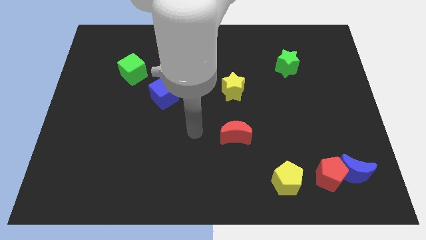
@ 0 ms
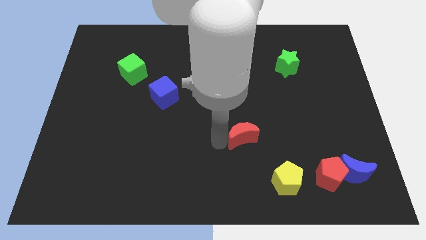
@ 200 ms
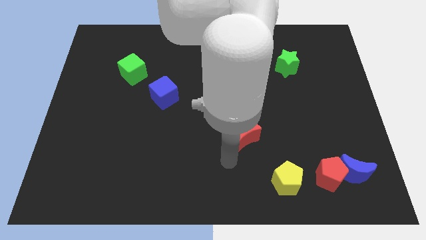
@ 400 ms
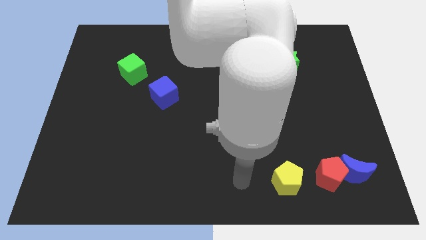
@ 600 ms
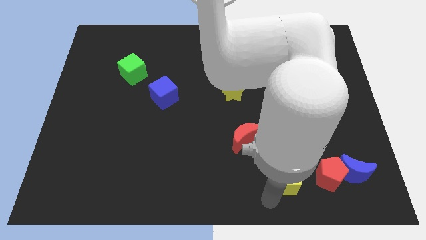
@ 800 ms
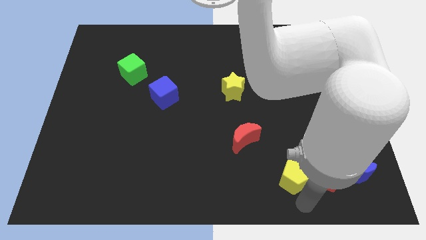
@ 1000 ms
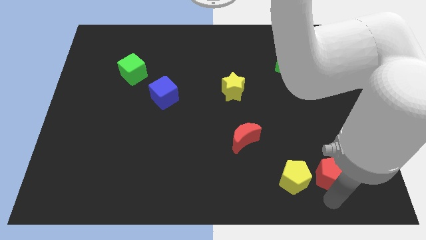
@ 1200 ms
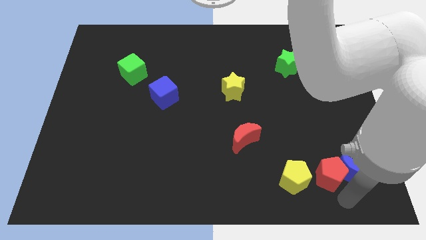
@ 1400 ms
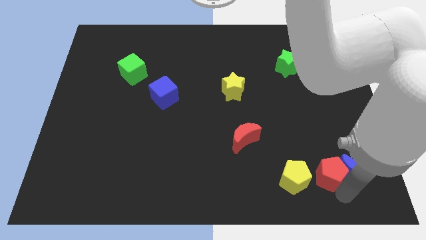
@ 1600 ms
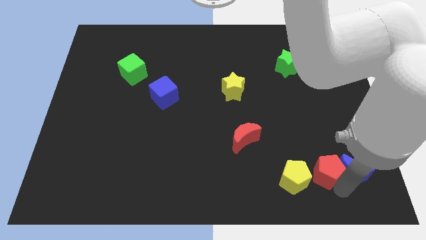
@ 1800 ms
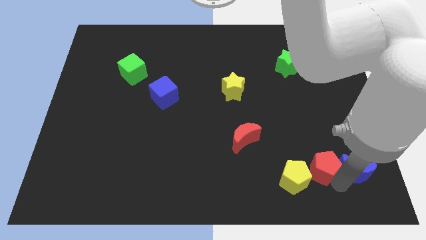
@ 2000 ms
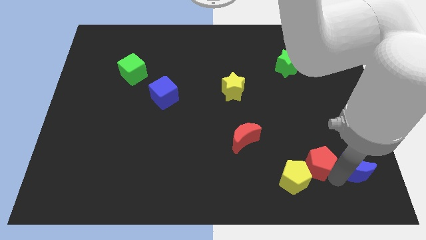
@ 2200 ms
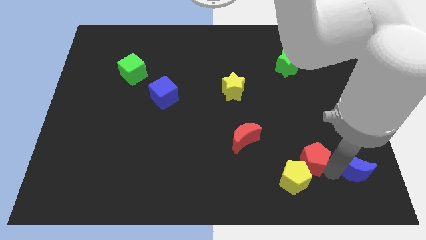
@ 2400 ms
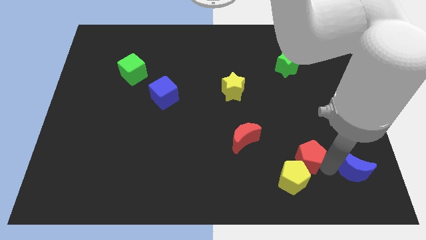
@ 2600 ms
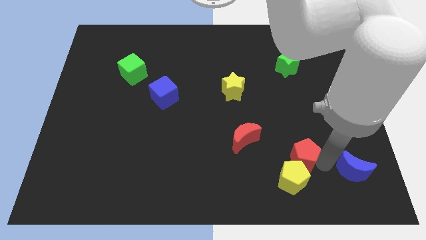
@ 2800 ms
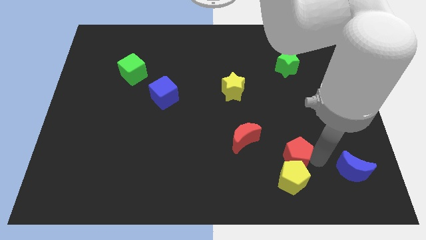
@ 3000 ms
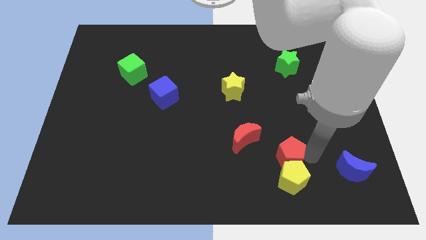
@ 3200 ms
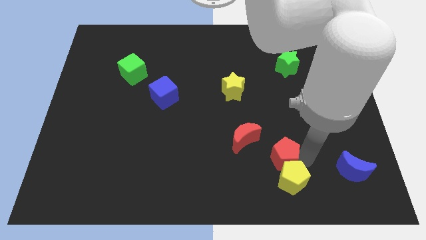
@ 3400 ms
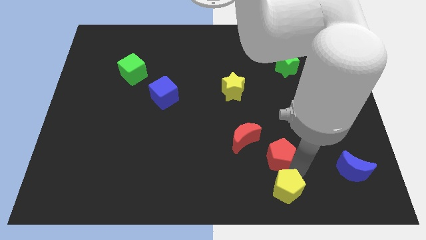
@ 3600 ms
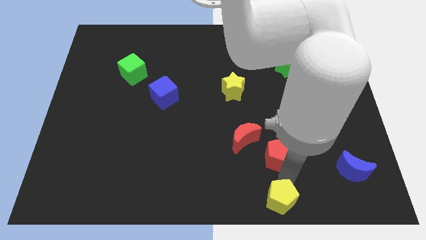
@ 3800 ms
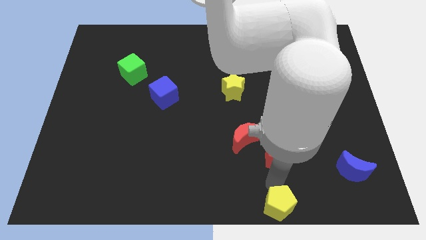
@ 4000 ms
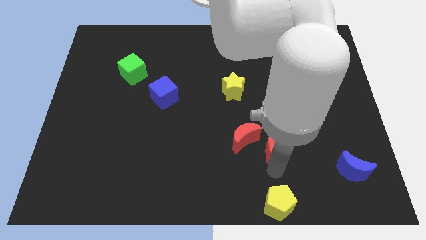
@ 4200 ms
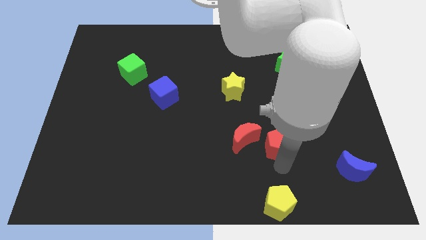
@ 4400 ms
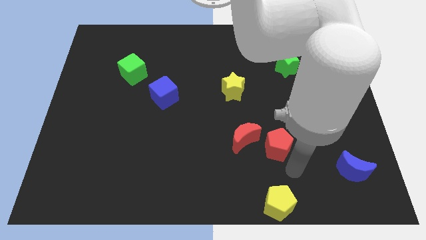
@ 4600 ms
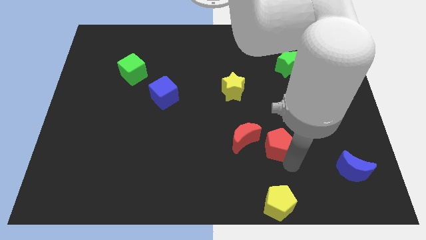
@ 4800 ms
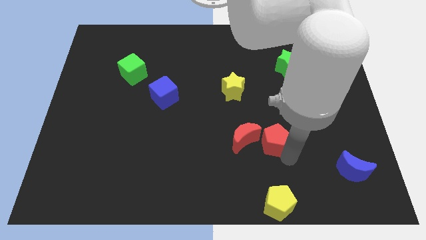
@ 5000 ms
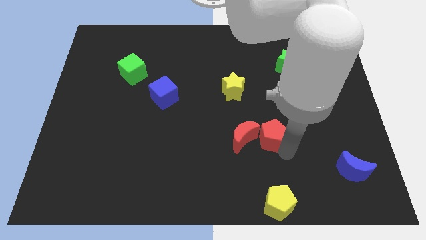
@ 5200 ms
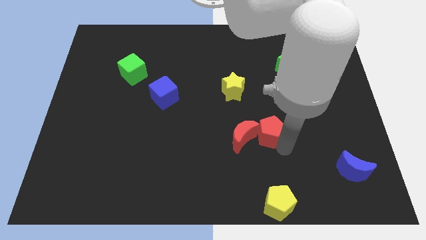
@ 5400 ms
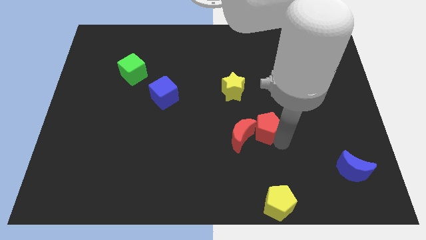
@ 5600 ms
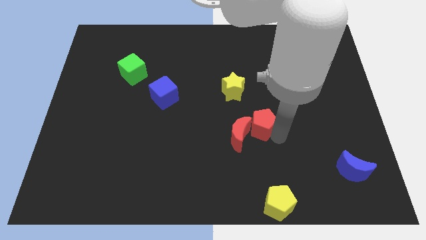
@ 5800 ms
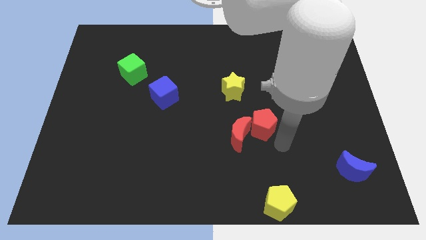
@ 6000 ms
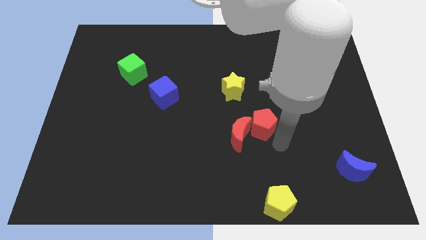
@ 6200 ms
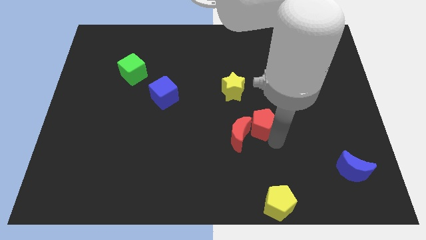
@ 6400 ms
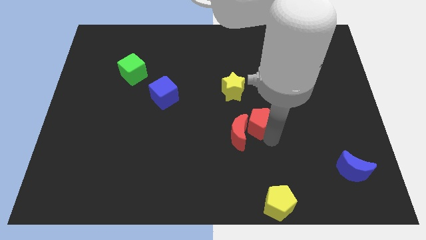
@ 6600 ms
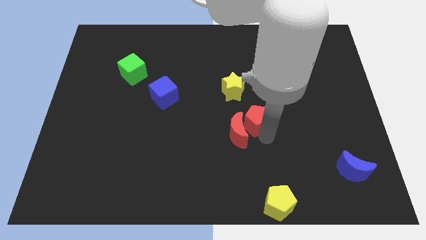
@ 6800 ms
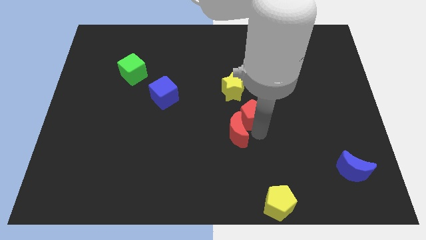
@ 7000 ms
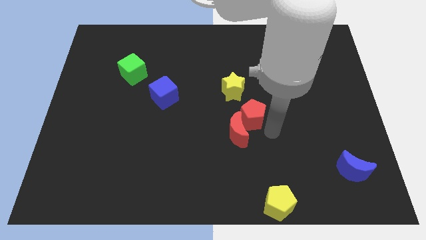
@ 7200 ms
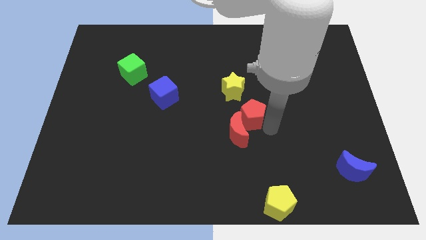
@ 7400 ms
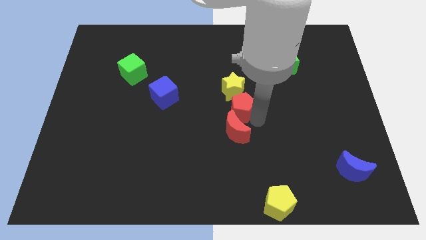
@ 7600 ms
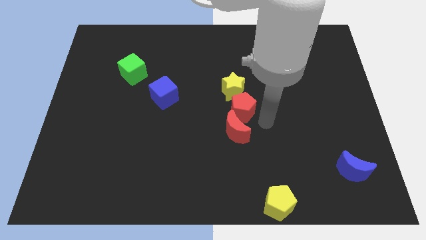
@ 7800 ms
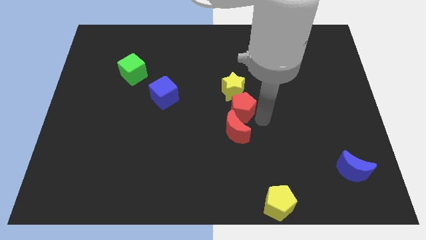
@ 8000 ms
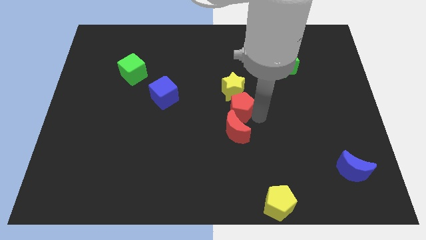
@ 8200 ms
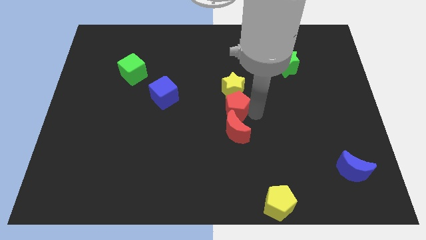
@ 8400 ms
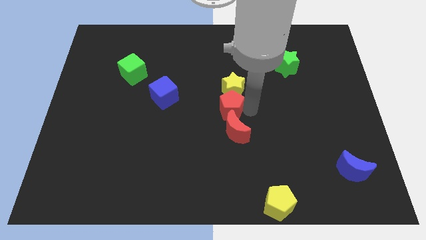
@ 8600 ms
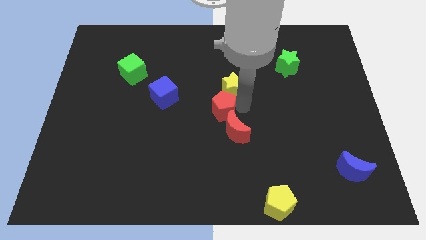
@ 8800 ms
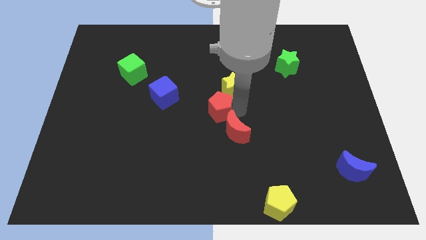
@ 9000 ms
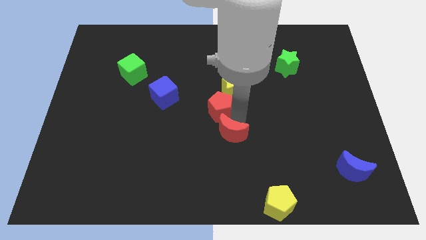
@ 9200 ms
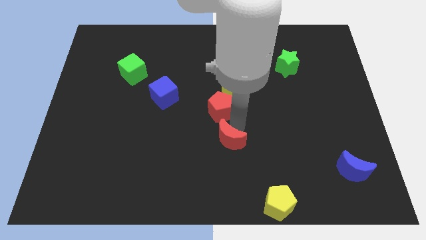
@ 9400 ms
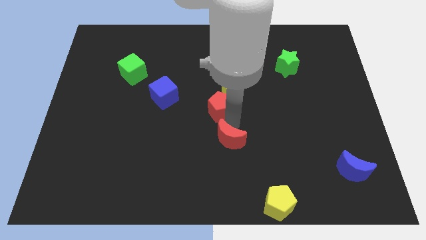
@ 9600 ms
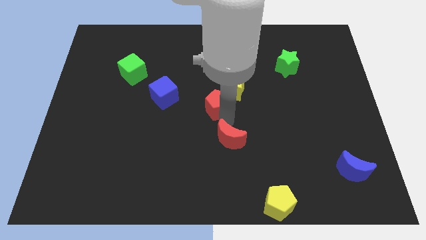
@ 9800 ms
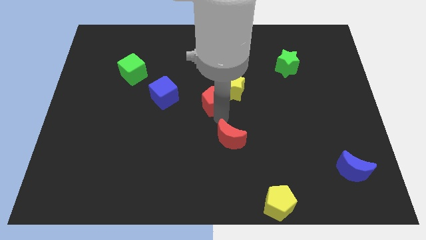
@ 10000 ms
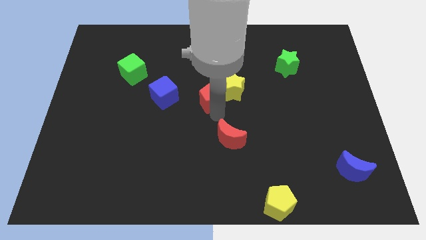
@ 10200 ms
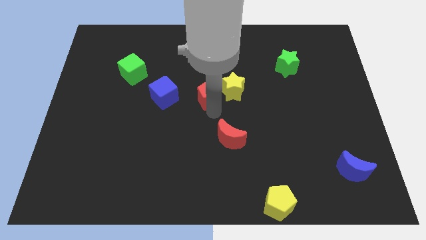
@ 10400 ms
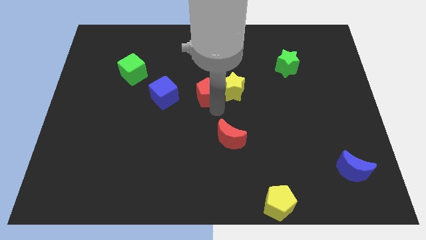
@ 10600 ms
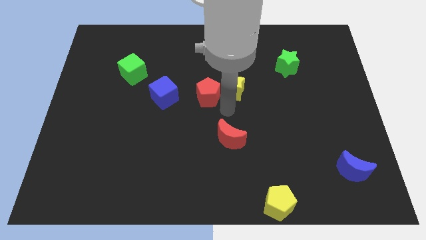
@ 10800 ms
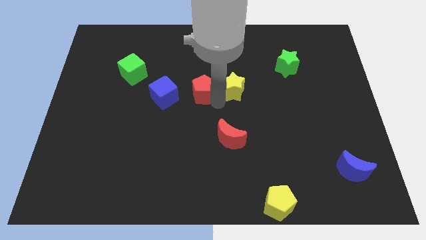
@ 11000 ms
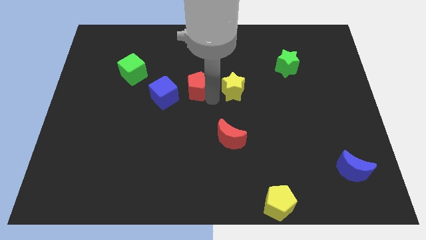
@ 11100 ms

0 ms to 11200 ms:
push the red pentagon diagonally up and to the right of the blue cube

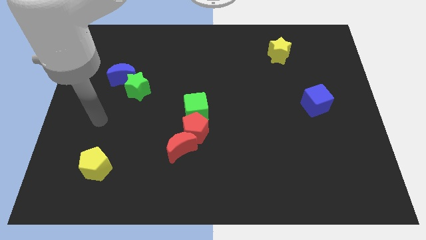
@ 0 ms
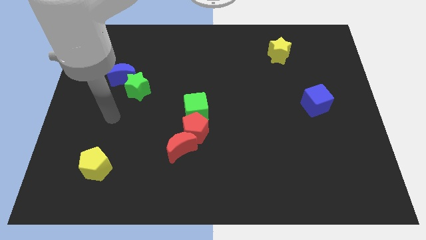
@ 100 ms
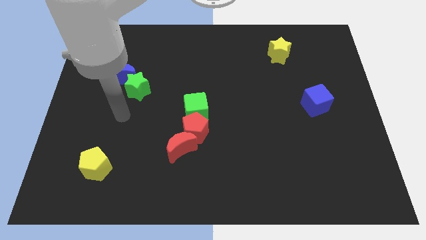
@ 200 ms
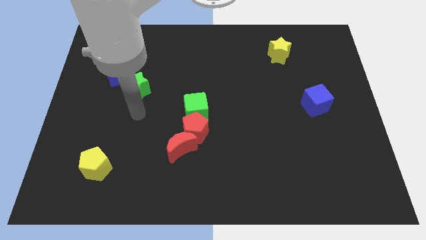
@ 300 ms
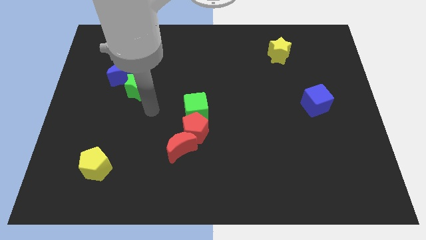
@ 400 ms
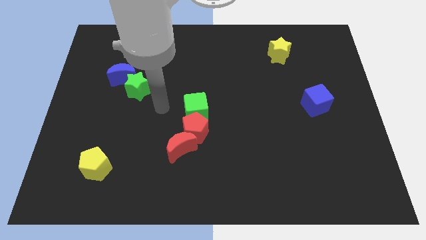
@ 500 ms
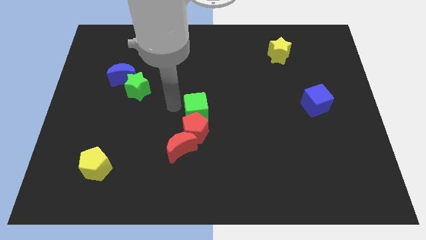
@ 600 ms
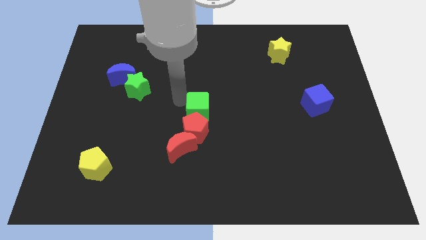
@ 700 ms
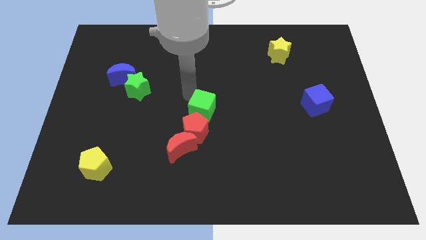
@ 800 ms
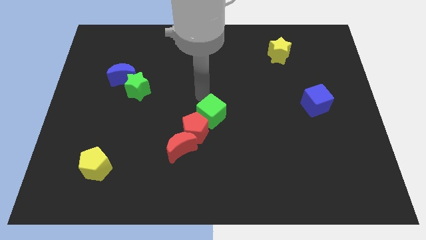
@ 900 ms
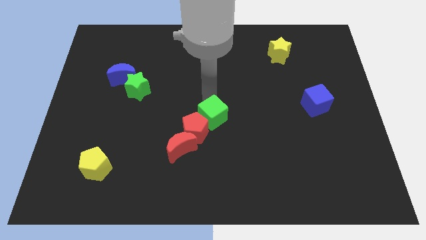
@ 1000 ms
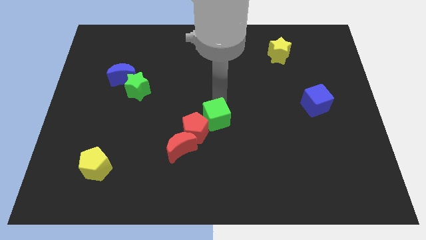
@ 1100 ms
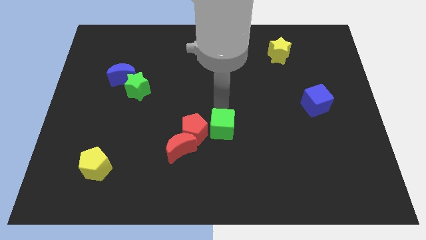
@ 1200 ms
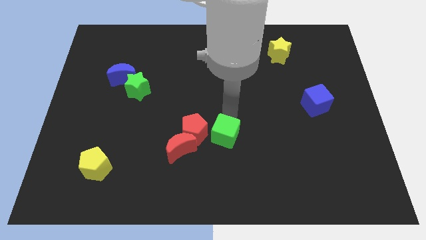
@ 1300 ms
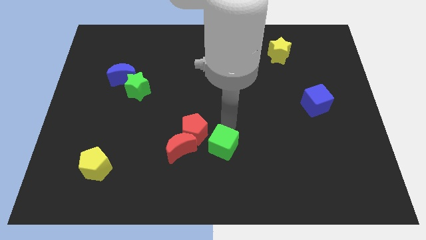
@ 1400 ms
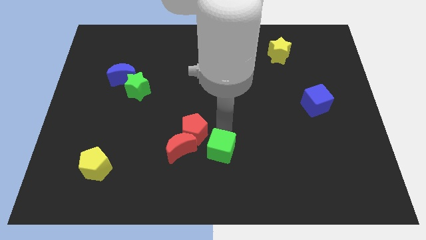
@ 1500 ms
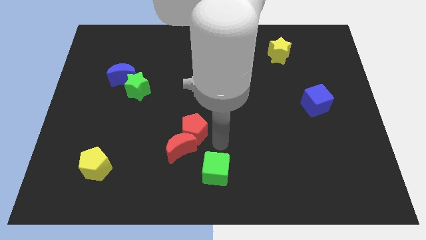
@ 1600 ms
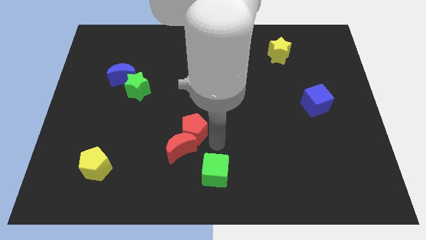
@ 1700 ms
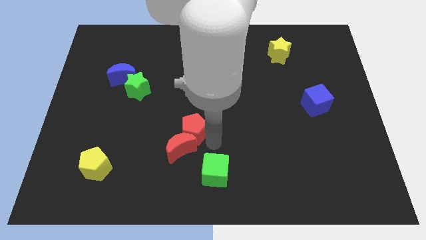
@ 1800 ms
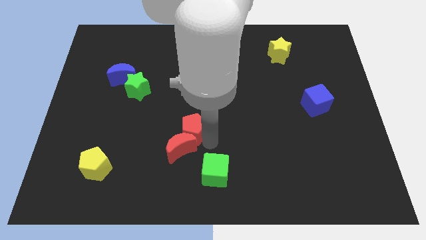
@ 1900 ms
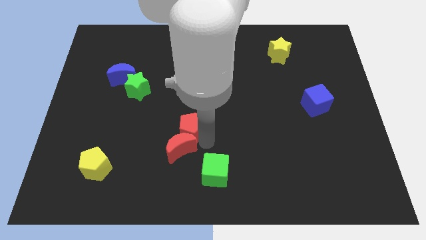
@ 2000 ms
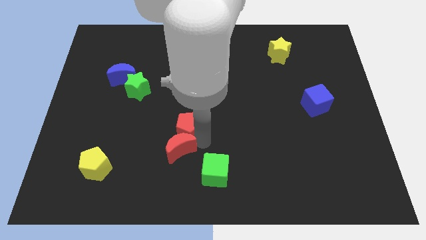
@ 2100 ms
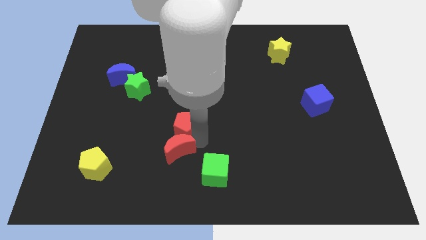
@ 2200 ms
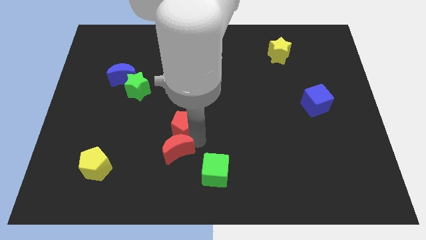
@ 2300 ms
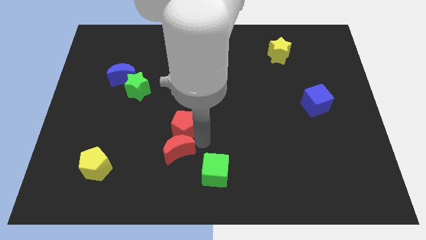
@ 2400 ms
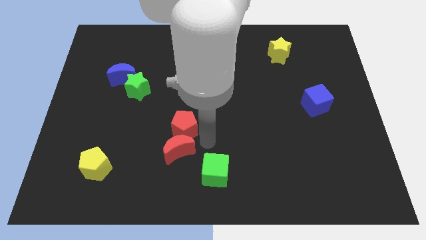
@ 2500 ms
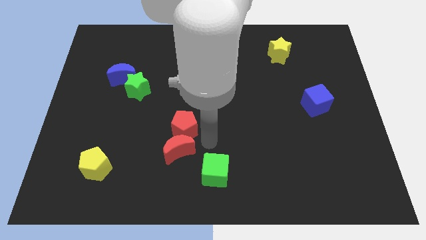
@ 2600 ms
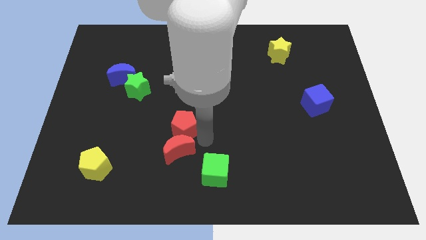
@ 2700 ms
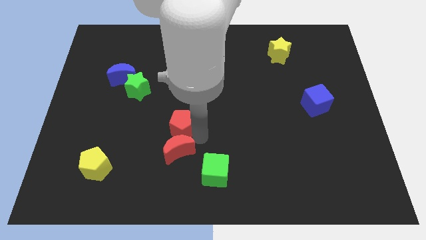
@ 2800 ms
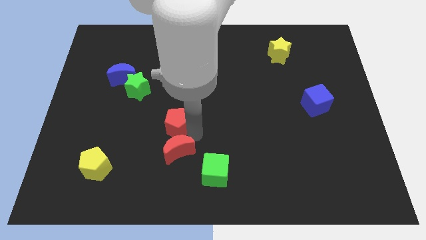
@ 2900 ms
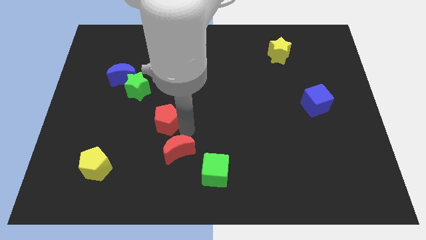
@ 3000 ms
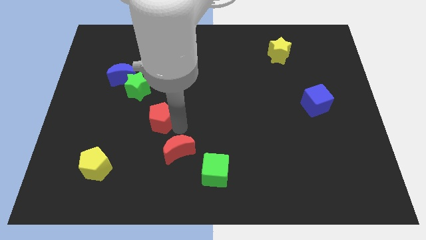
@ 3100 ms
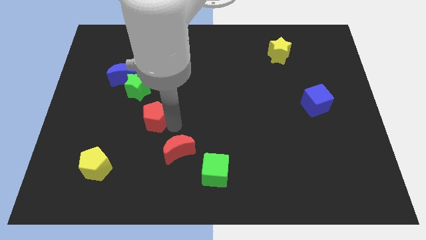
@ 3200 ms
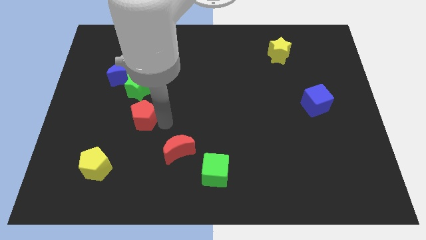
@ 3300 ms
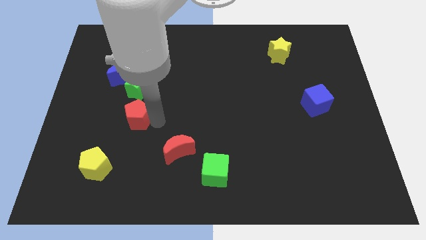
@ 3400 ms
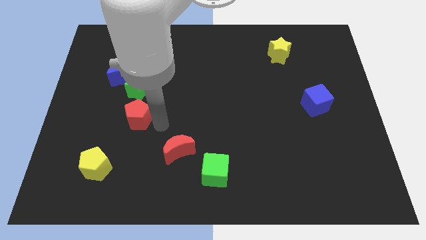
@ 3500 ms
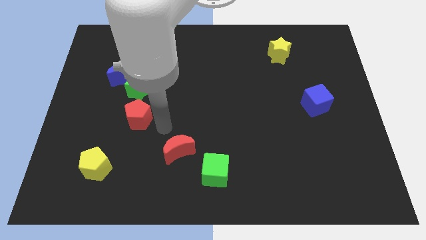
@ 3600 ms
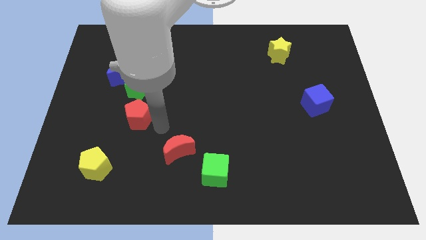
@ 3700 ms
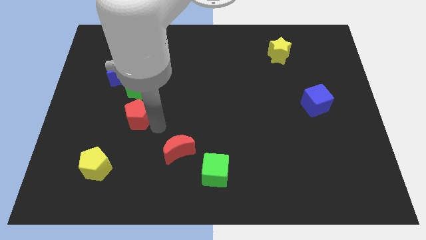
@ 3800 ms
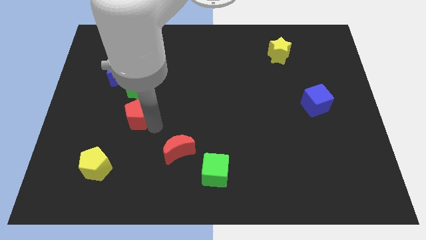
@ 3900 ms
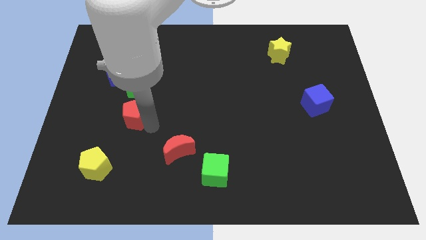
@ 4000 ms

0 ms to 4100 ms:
put the red pentagon to the bottom side of the blue moon
